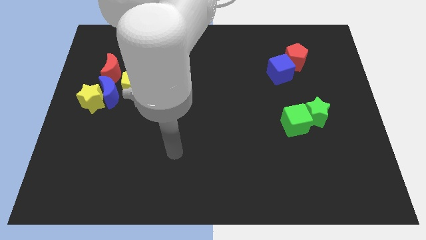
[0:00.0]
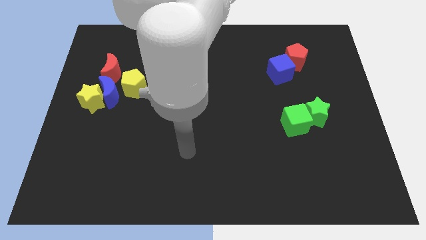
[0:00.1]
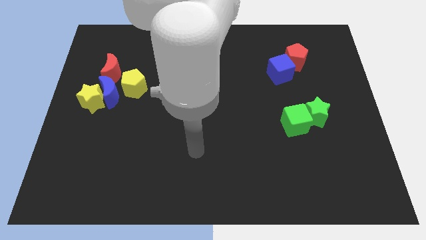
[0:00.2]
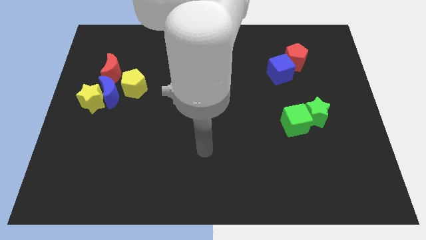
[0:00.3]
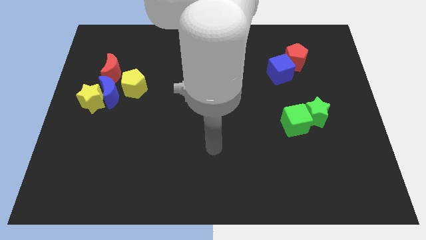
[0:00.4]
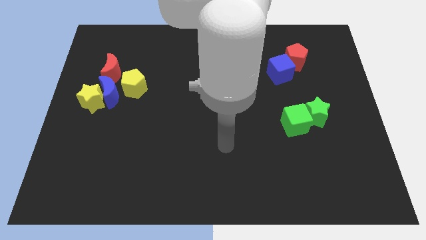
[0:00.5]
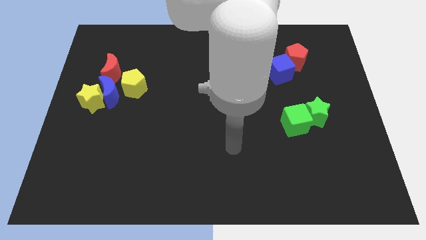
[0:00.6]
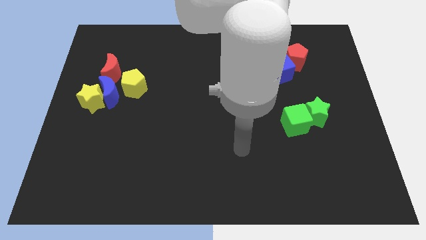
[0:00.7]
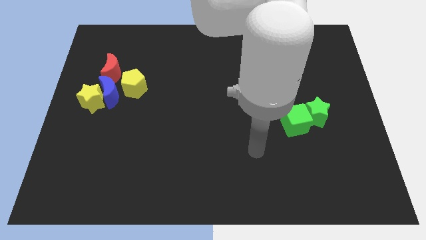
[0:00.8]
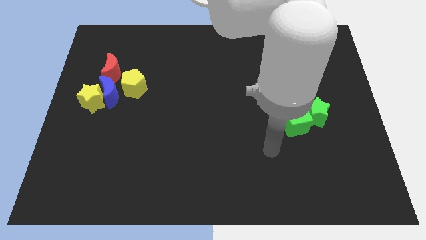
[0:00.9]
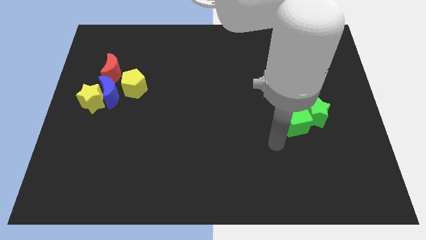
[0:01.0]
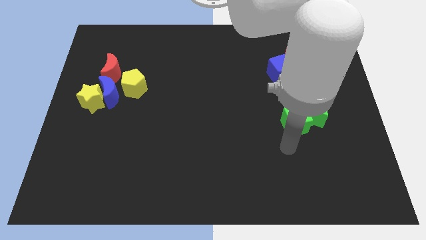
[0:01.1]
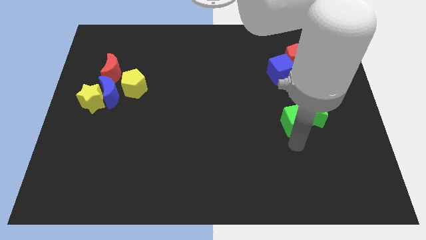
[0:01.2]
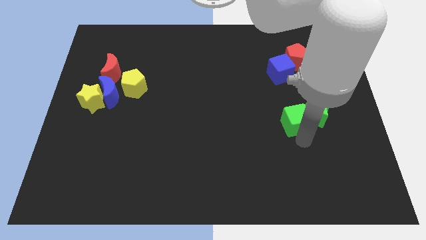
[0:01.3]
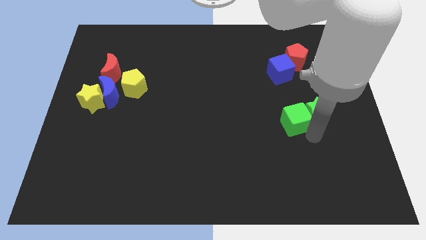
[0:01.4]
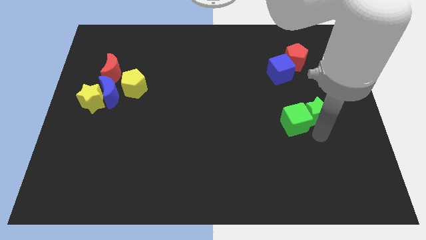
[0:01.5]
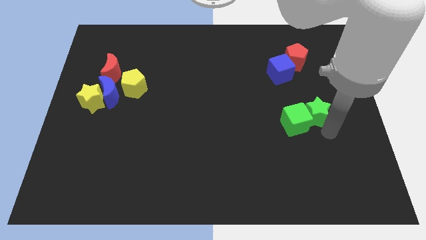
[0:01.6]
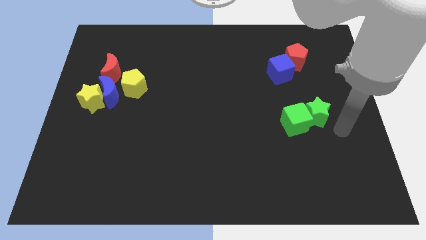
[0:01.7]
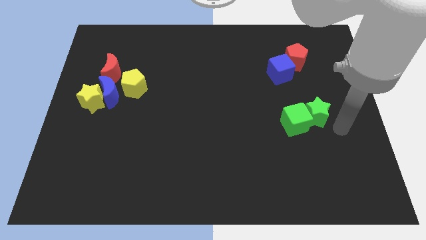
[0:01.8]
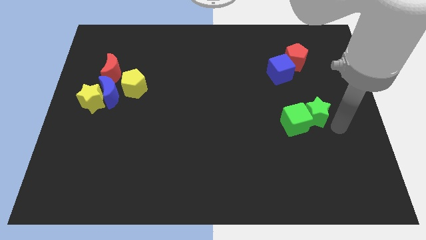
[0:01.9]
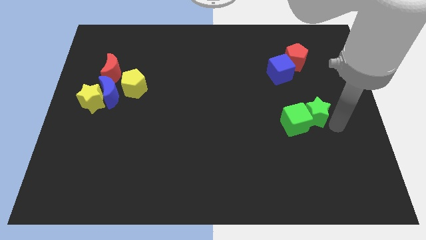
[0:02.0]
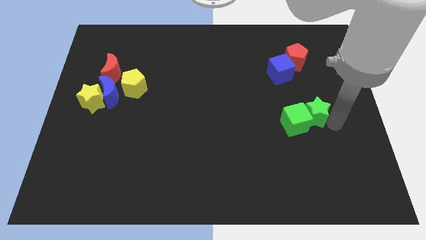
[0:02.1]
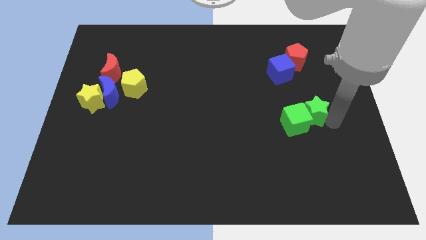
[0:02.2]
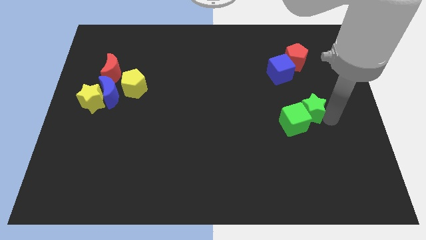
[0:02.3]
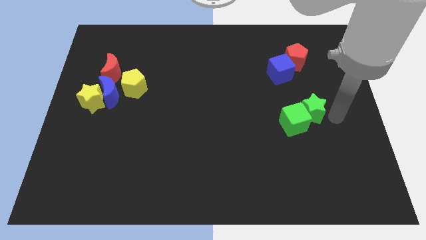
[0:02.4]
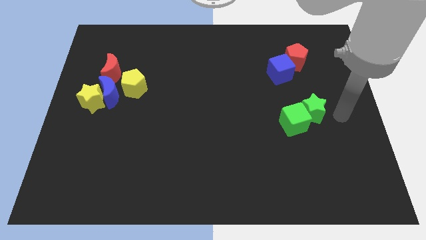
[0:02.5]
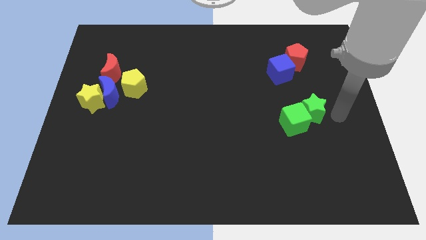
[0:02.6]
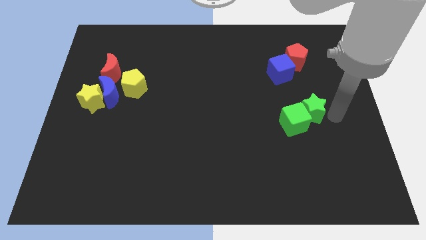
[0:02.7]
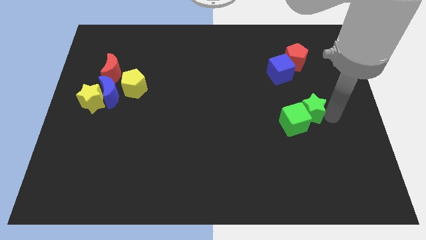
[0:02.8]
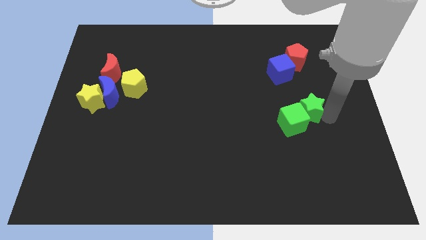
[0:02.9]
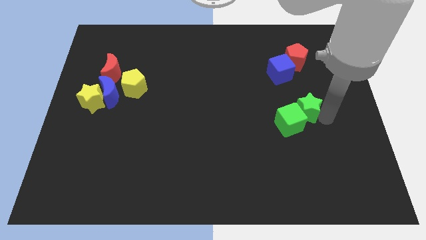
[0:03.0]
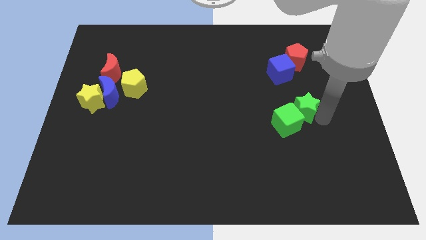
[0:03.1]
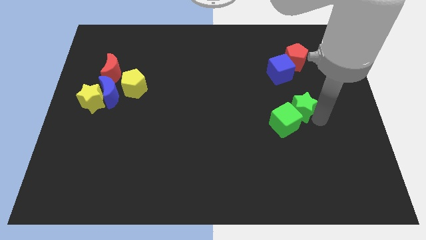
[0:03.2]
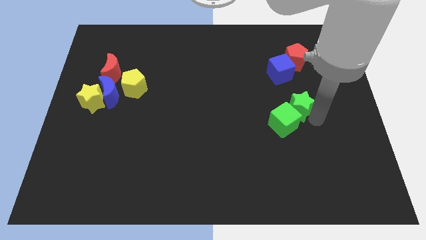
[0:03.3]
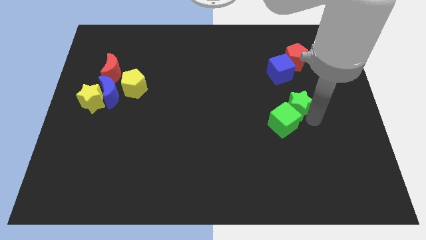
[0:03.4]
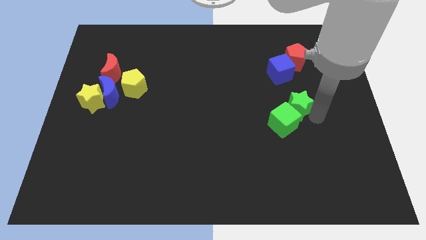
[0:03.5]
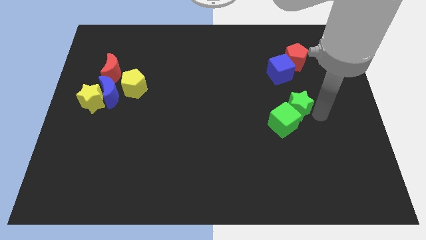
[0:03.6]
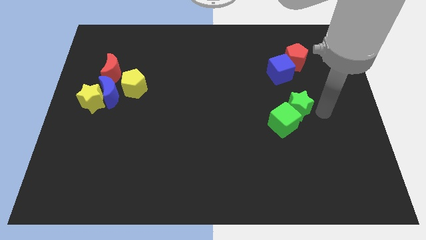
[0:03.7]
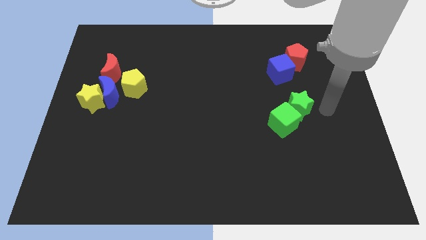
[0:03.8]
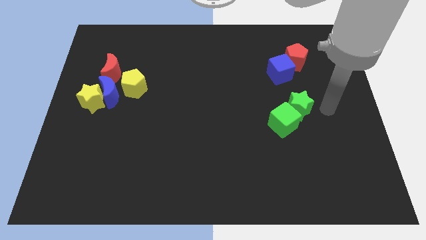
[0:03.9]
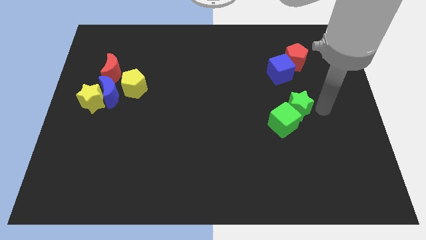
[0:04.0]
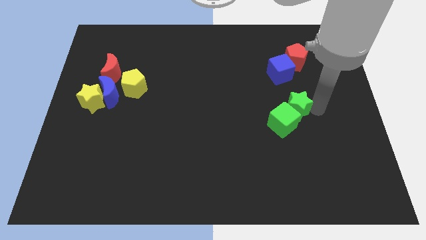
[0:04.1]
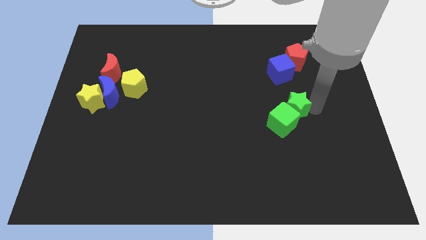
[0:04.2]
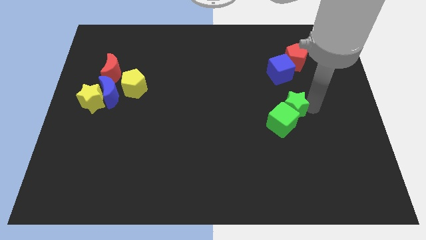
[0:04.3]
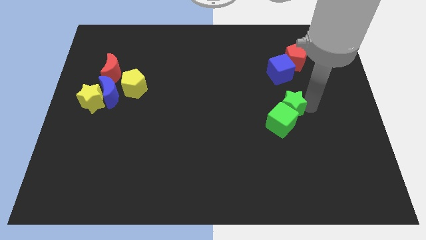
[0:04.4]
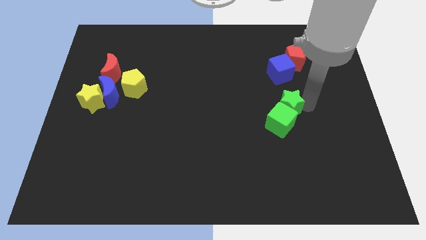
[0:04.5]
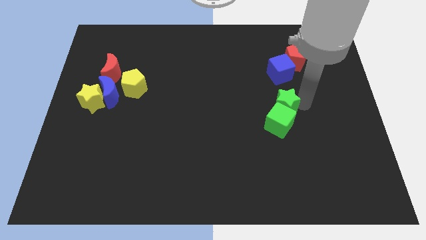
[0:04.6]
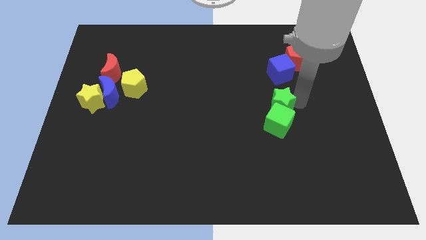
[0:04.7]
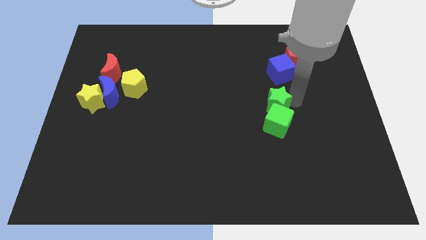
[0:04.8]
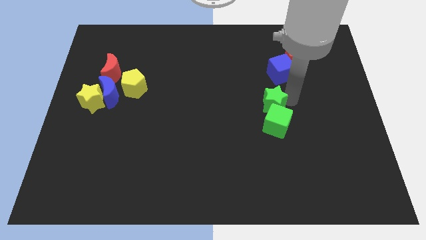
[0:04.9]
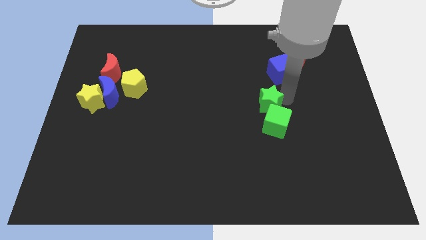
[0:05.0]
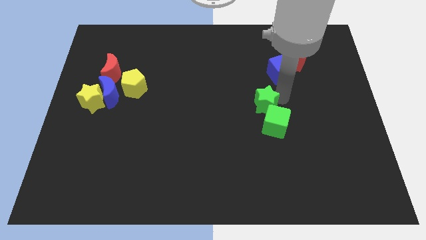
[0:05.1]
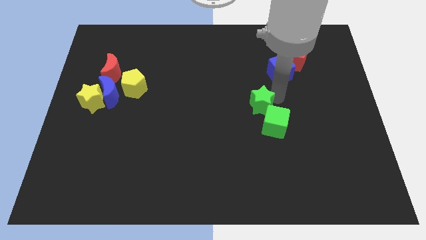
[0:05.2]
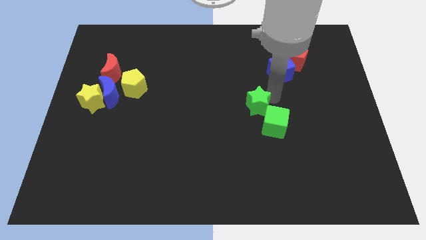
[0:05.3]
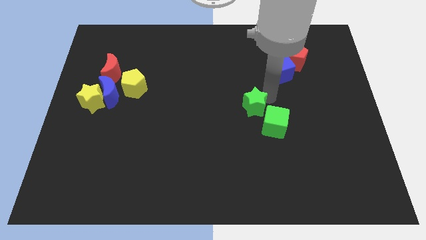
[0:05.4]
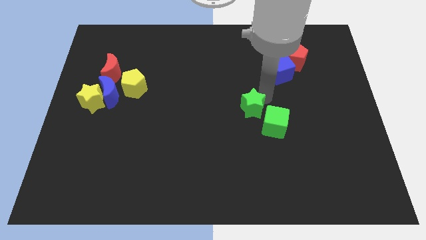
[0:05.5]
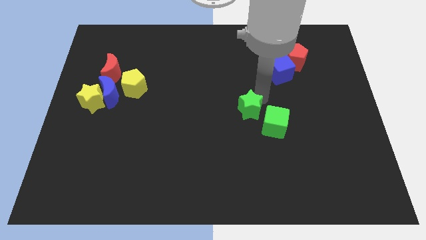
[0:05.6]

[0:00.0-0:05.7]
move the green star just left of the green cube
